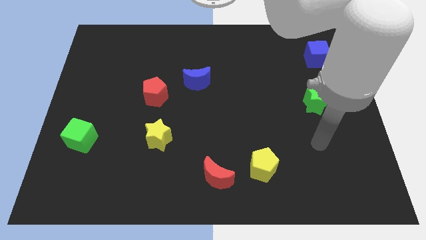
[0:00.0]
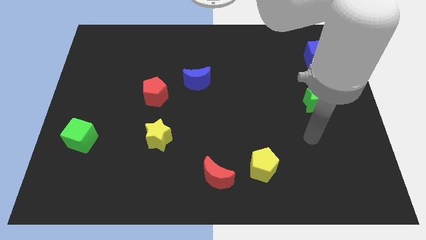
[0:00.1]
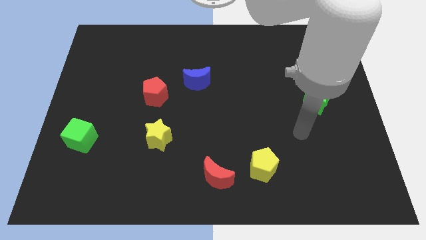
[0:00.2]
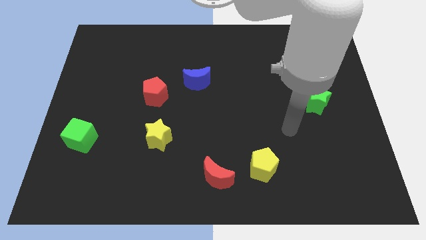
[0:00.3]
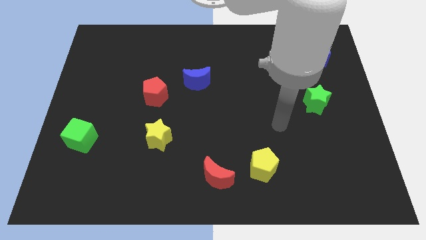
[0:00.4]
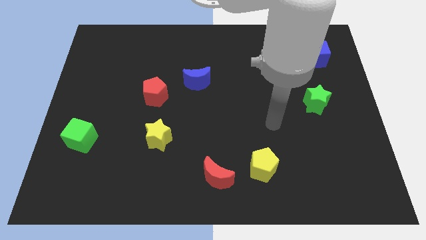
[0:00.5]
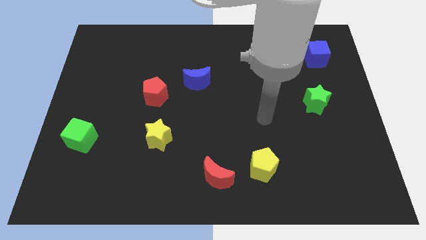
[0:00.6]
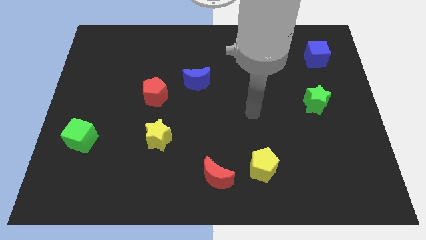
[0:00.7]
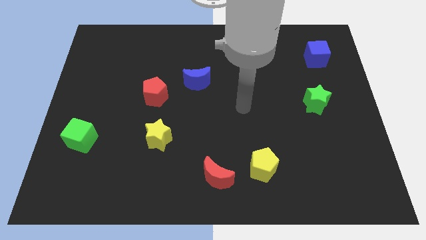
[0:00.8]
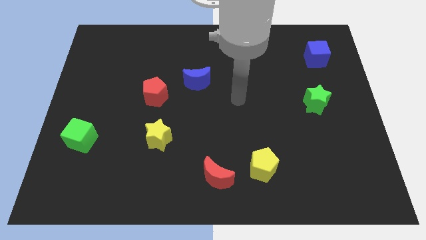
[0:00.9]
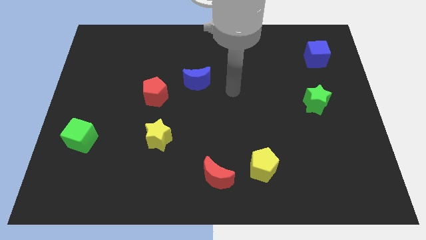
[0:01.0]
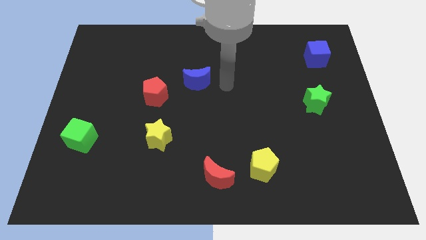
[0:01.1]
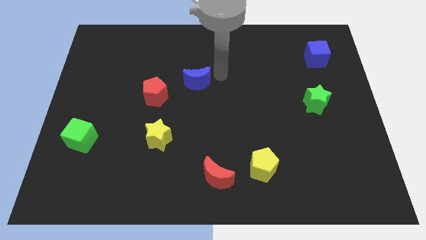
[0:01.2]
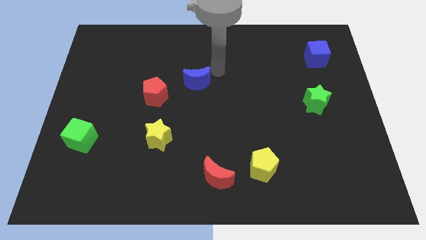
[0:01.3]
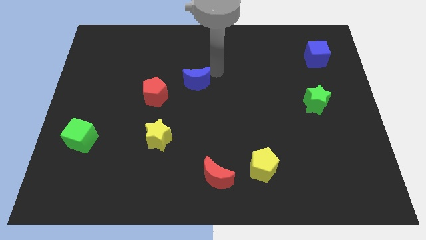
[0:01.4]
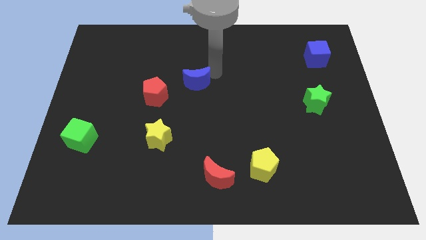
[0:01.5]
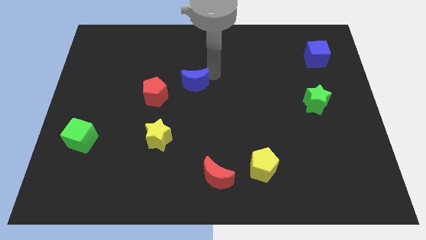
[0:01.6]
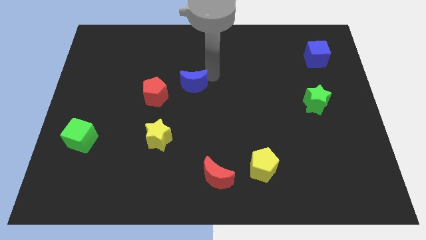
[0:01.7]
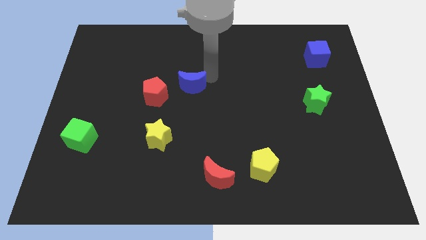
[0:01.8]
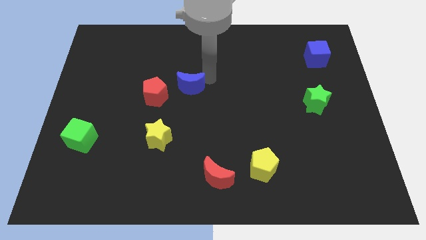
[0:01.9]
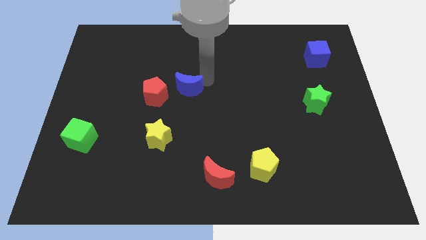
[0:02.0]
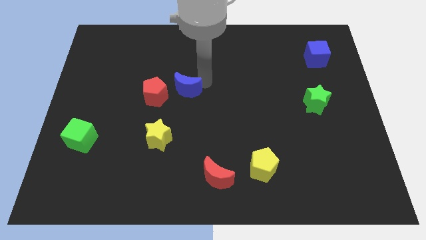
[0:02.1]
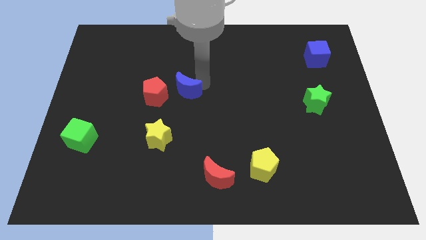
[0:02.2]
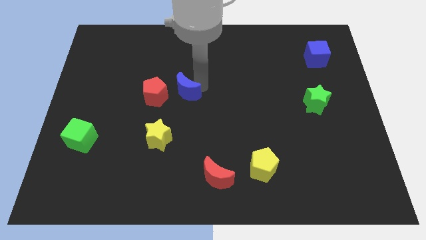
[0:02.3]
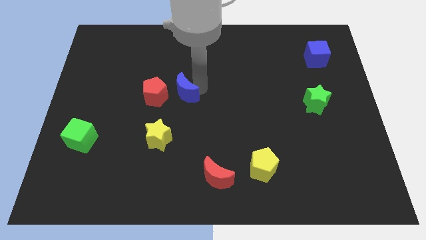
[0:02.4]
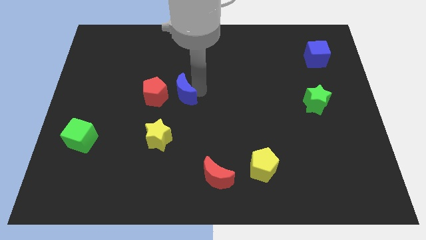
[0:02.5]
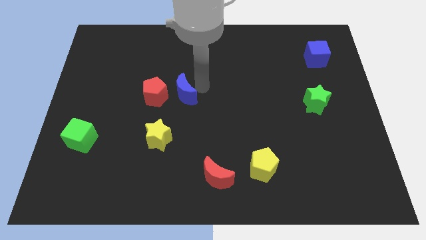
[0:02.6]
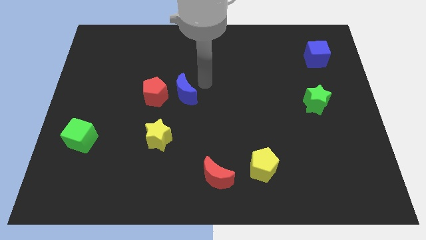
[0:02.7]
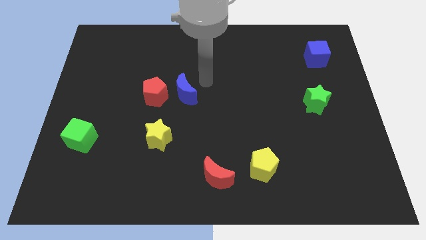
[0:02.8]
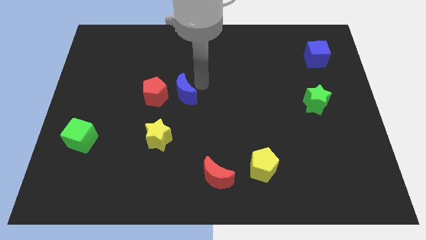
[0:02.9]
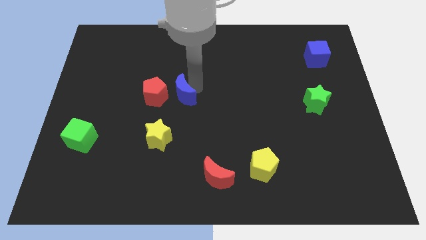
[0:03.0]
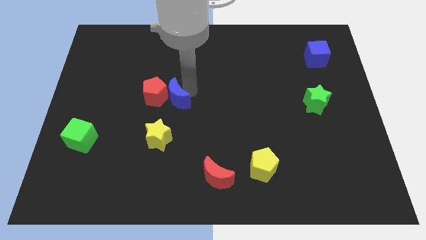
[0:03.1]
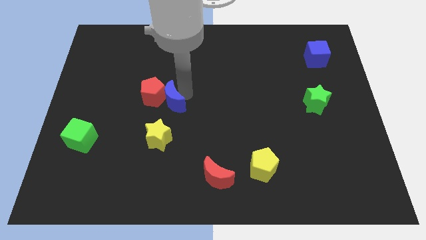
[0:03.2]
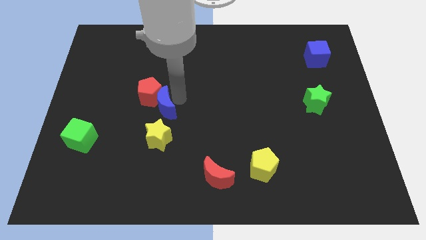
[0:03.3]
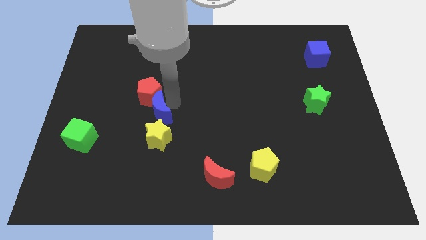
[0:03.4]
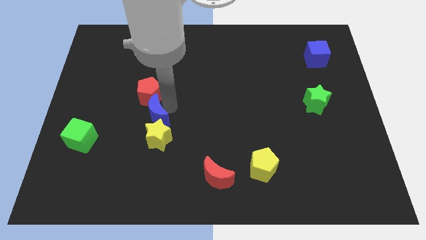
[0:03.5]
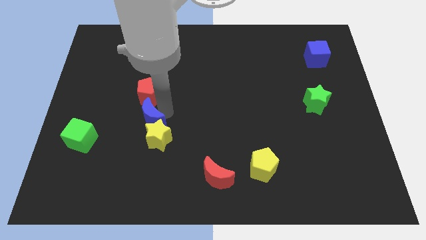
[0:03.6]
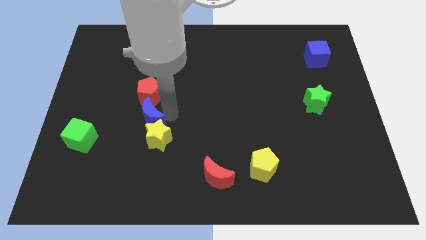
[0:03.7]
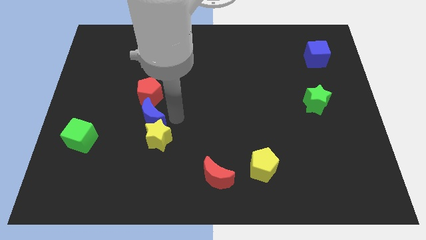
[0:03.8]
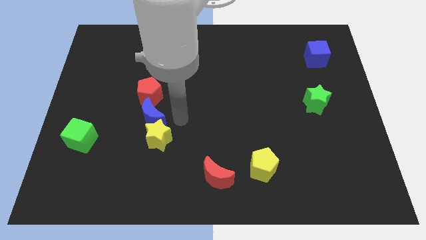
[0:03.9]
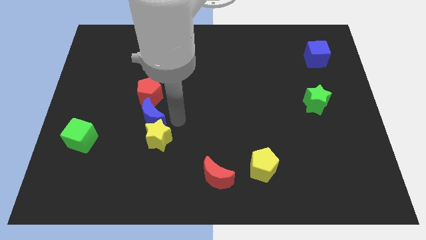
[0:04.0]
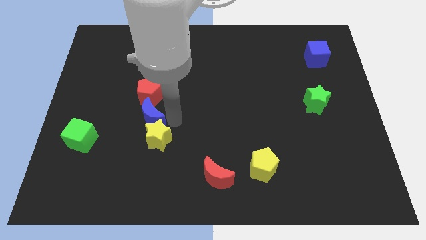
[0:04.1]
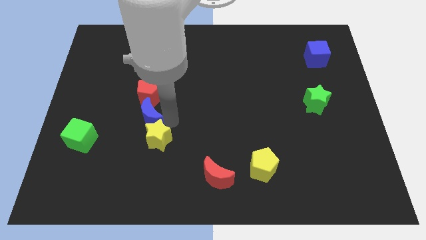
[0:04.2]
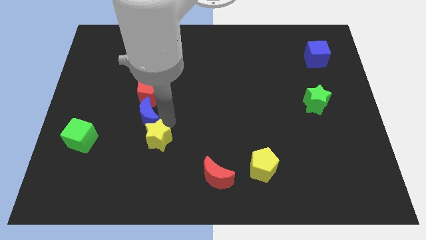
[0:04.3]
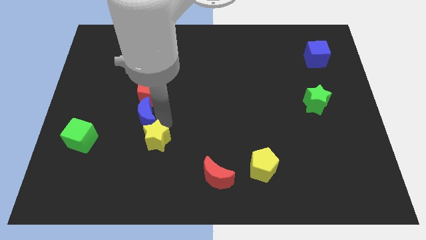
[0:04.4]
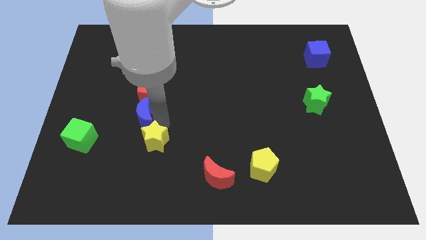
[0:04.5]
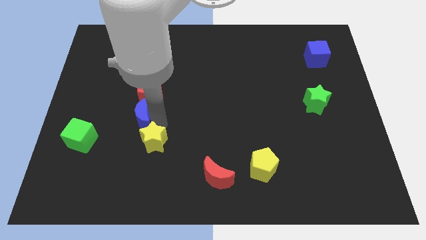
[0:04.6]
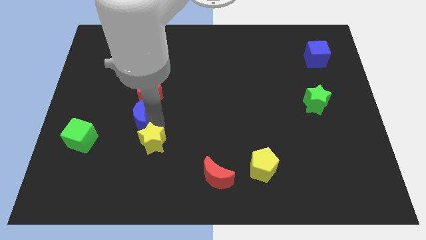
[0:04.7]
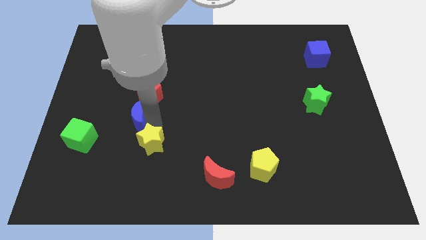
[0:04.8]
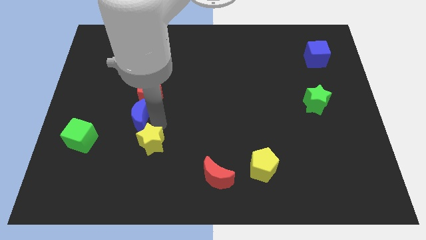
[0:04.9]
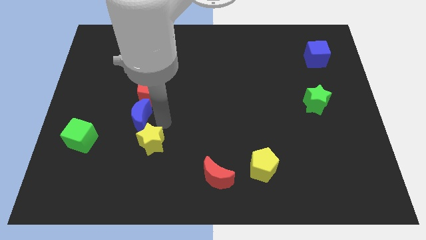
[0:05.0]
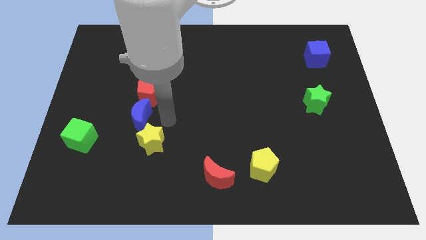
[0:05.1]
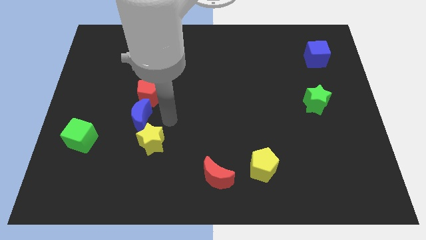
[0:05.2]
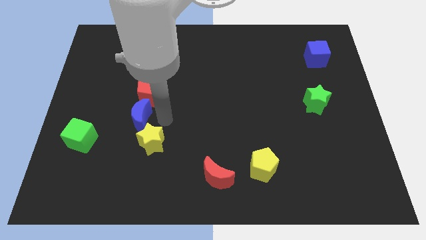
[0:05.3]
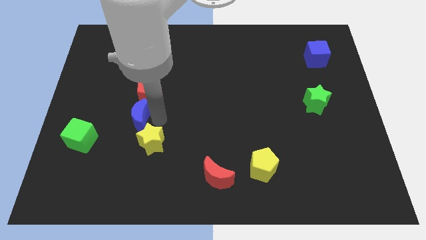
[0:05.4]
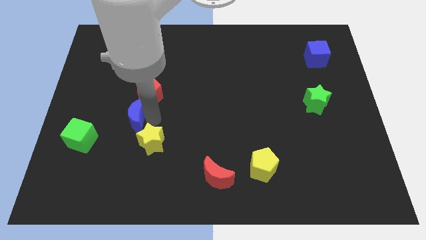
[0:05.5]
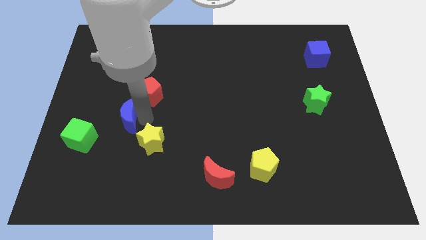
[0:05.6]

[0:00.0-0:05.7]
put the blue moon to the top right of the green cube

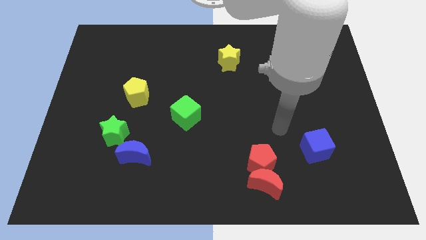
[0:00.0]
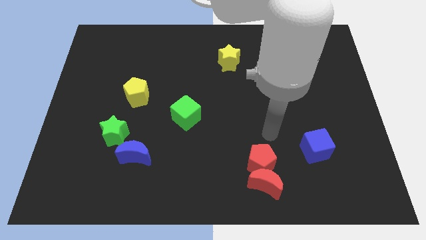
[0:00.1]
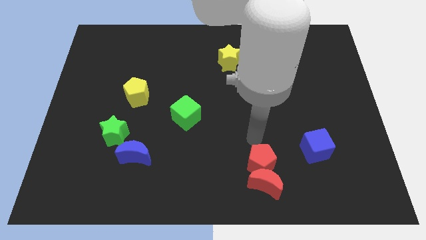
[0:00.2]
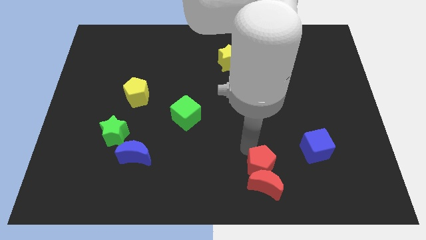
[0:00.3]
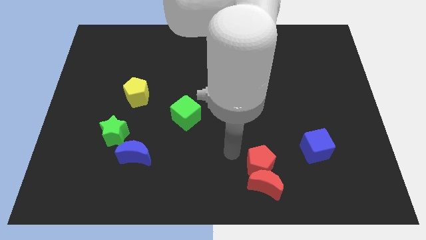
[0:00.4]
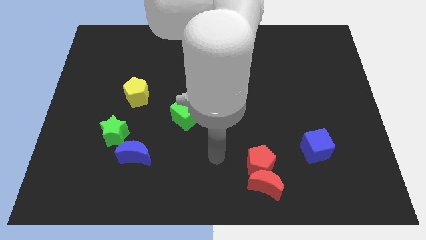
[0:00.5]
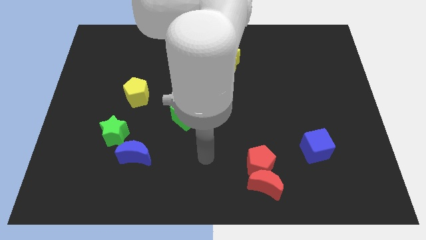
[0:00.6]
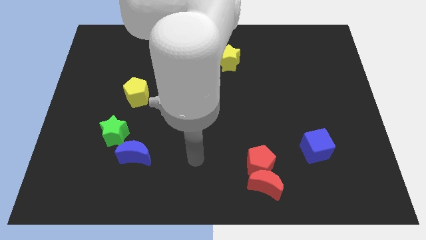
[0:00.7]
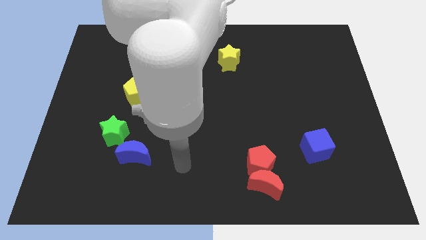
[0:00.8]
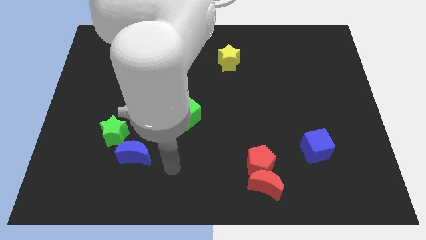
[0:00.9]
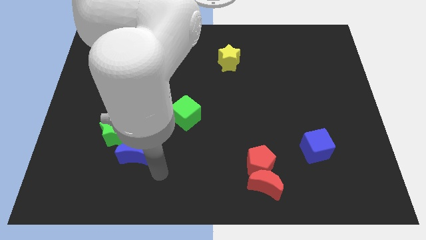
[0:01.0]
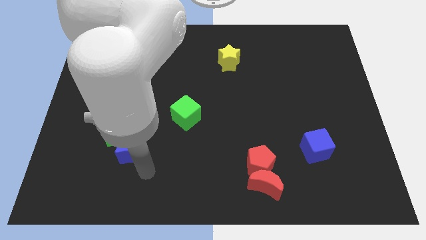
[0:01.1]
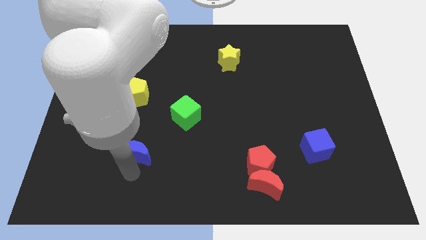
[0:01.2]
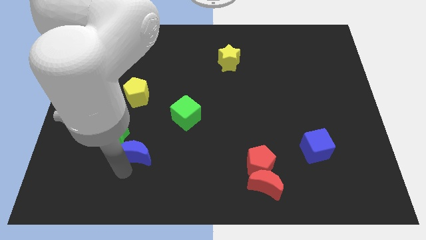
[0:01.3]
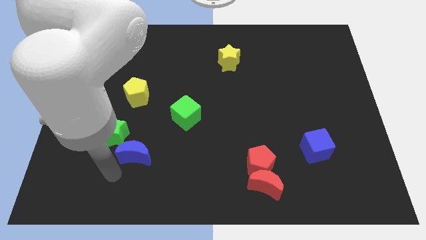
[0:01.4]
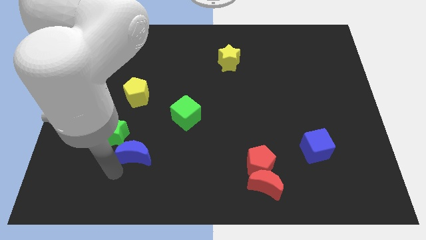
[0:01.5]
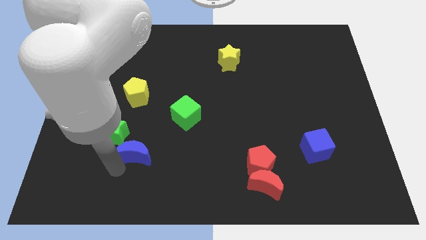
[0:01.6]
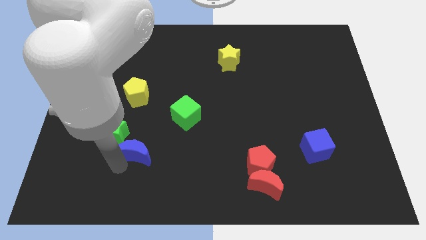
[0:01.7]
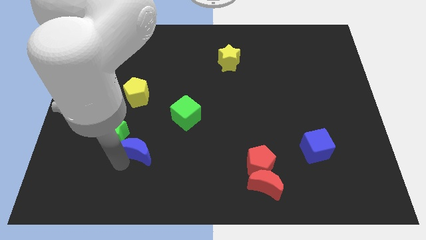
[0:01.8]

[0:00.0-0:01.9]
put the blue moon right of the green star

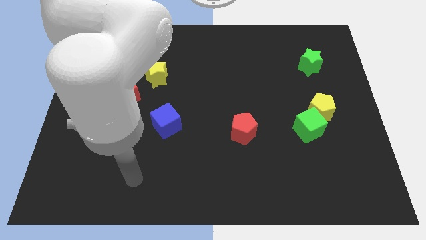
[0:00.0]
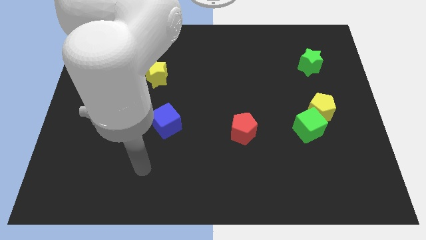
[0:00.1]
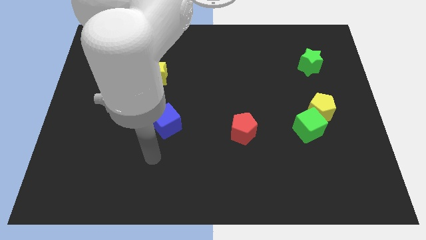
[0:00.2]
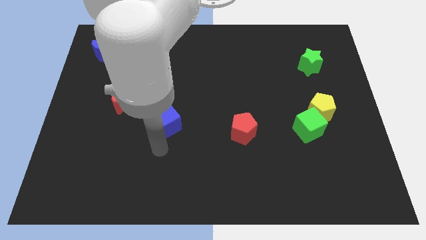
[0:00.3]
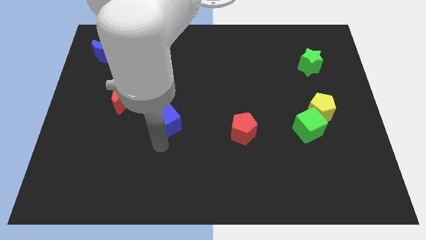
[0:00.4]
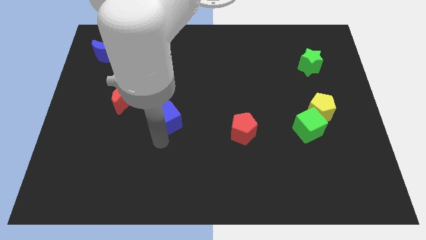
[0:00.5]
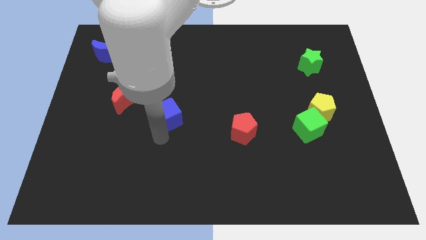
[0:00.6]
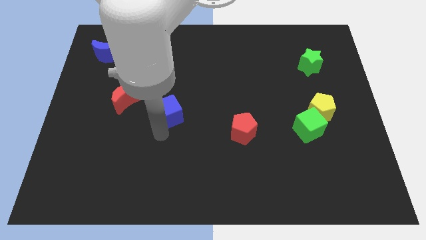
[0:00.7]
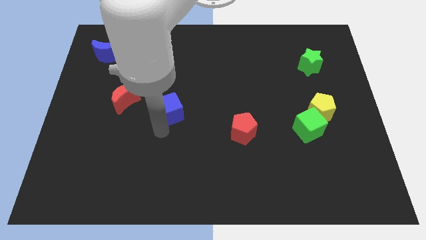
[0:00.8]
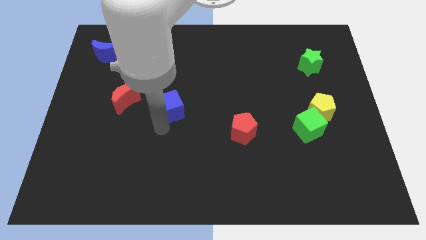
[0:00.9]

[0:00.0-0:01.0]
push the blue cube diagonally down and to the right of the yellow star
